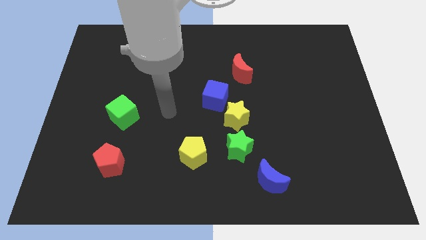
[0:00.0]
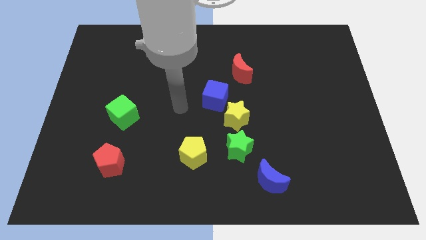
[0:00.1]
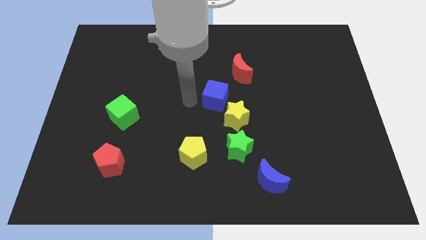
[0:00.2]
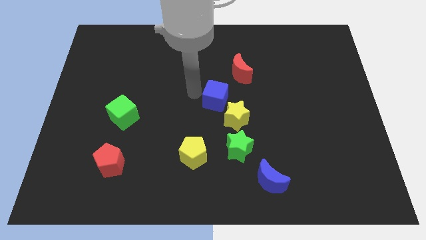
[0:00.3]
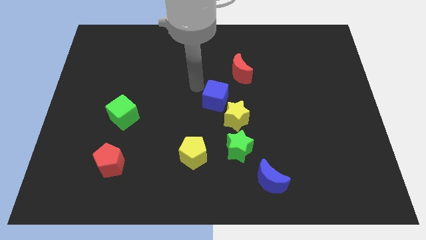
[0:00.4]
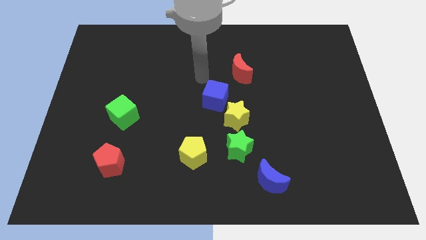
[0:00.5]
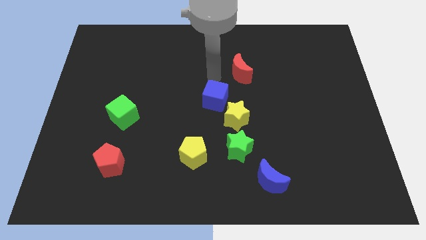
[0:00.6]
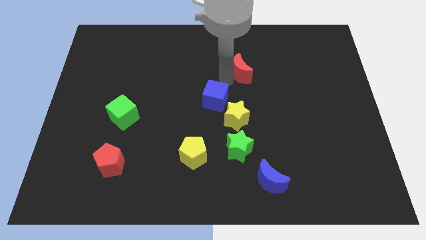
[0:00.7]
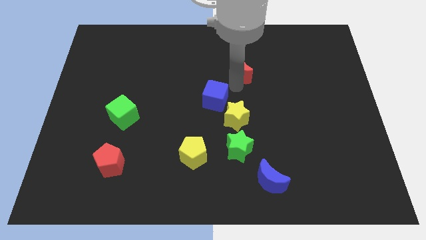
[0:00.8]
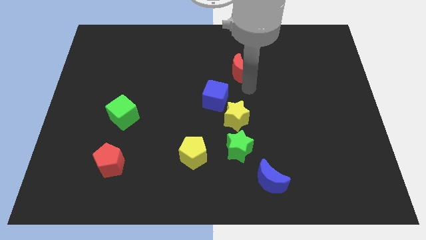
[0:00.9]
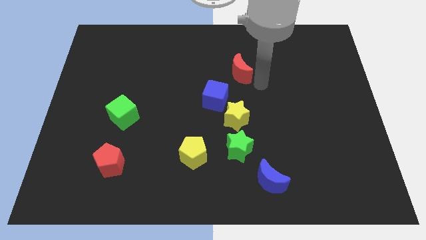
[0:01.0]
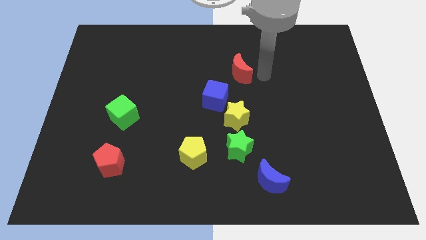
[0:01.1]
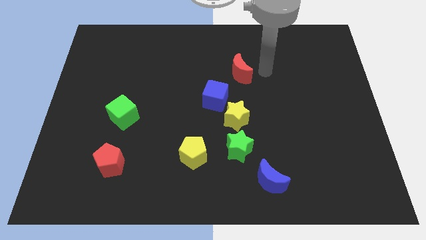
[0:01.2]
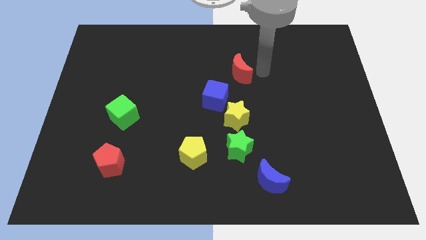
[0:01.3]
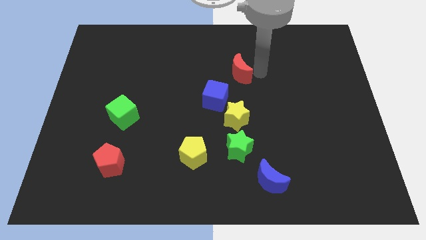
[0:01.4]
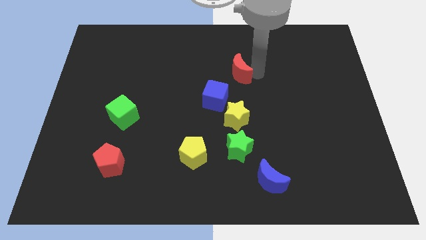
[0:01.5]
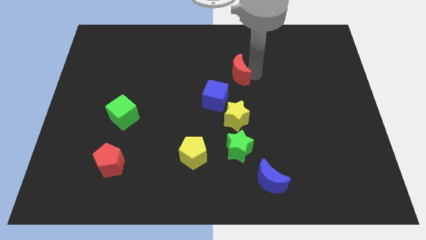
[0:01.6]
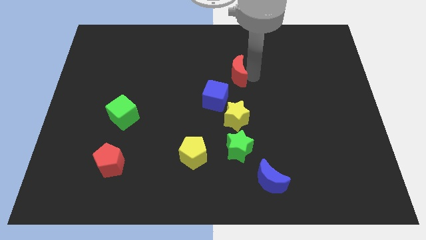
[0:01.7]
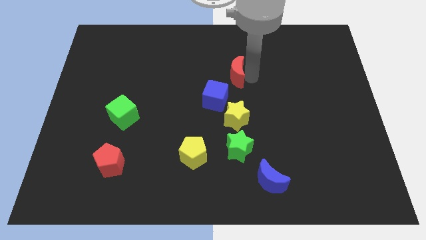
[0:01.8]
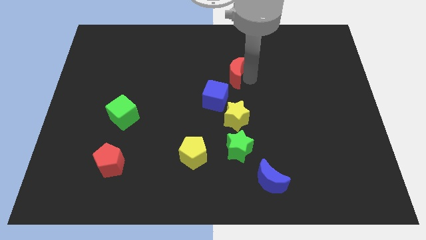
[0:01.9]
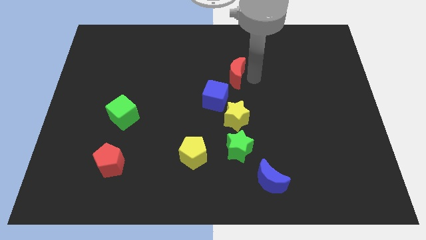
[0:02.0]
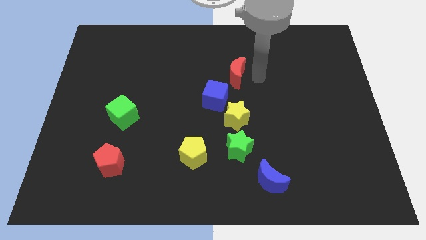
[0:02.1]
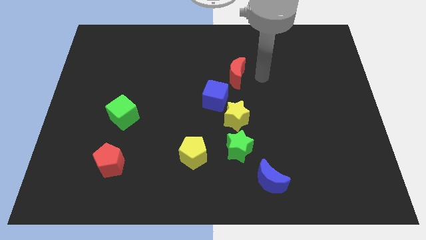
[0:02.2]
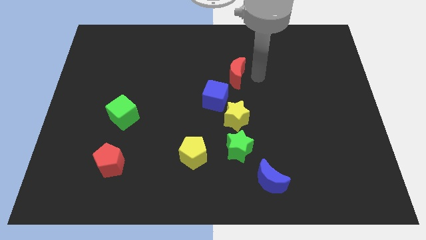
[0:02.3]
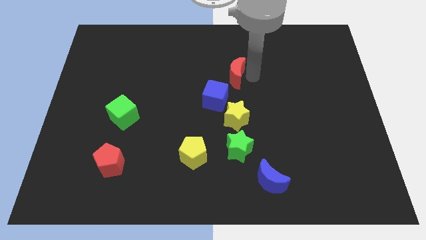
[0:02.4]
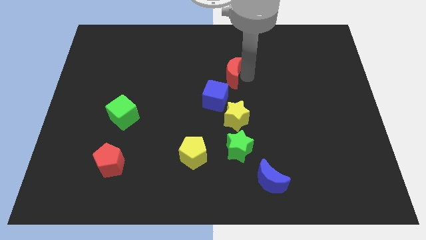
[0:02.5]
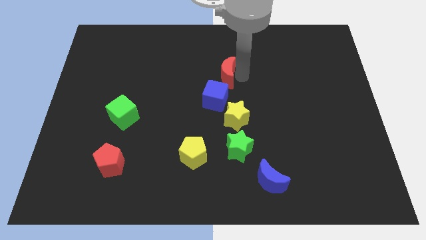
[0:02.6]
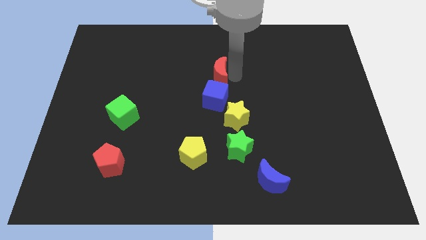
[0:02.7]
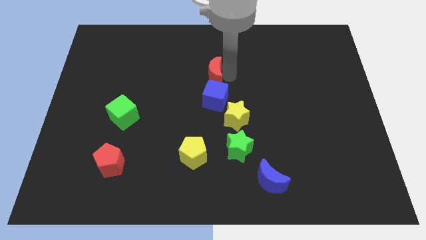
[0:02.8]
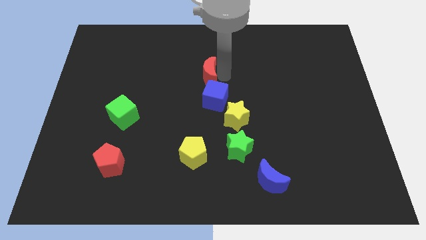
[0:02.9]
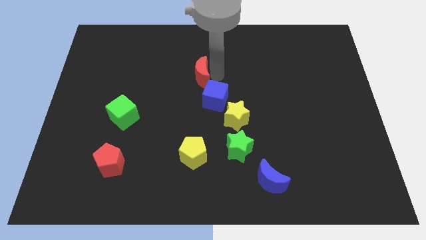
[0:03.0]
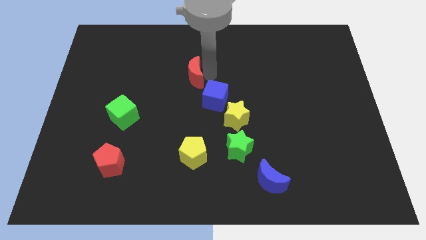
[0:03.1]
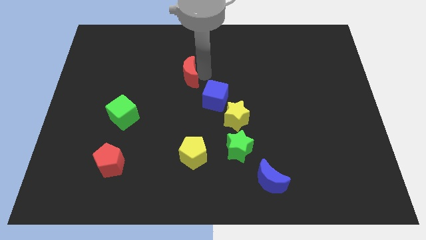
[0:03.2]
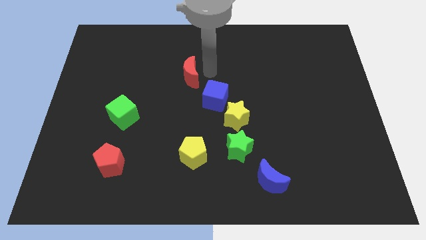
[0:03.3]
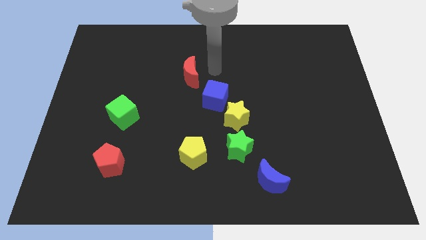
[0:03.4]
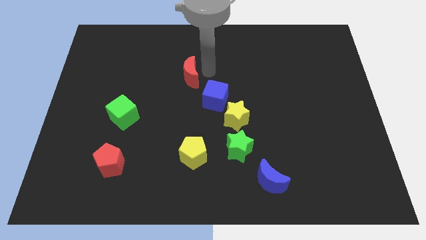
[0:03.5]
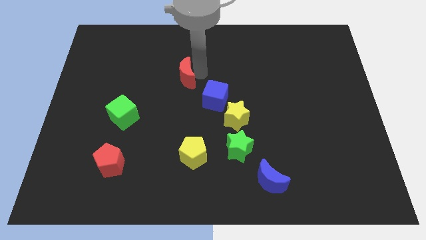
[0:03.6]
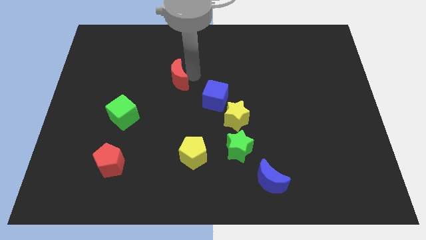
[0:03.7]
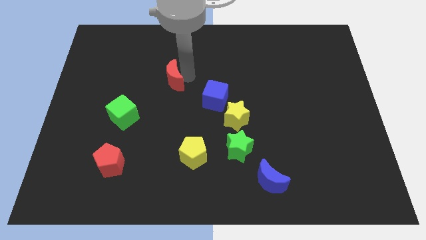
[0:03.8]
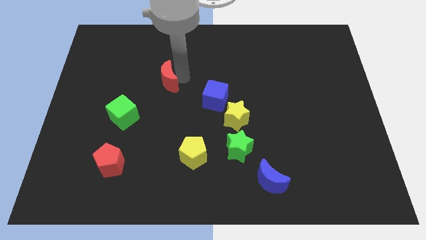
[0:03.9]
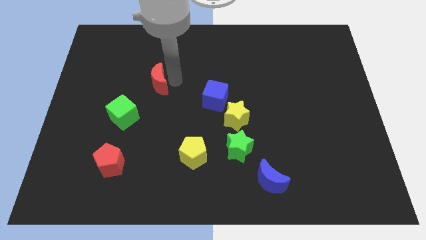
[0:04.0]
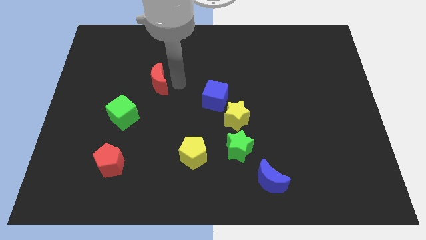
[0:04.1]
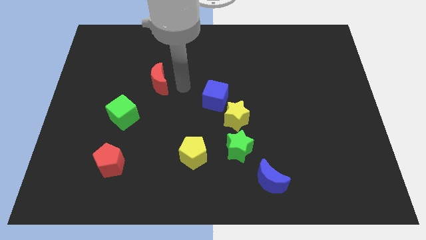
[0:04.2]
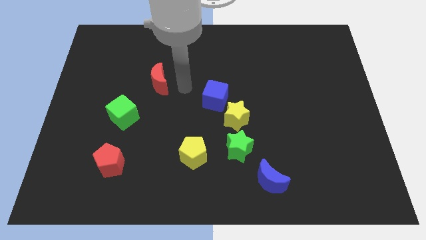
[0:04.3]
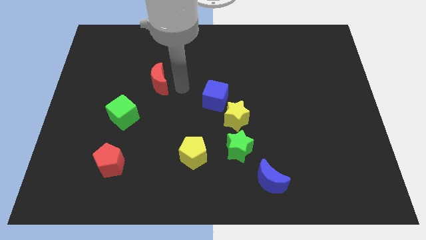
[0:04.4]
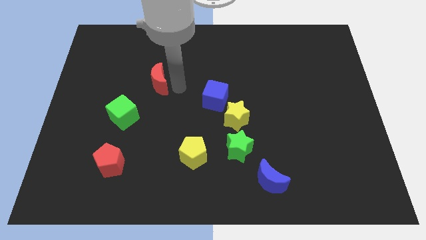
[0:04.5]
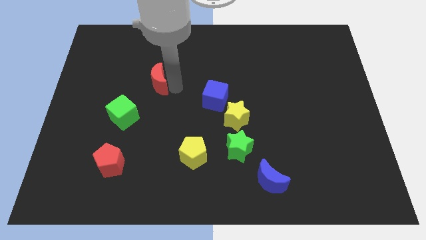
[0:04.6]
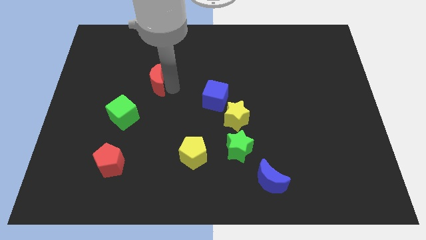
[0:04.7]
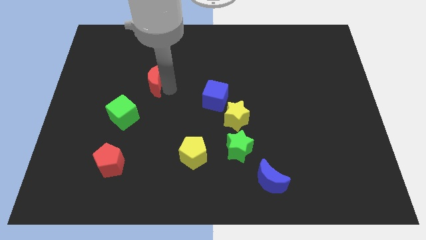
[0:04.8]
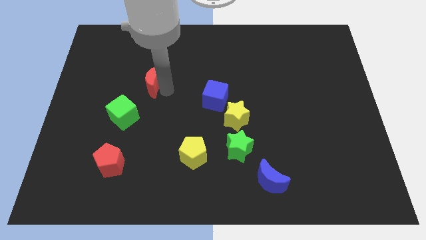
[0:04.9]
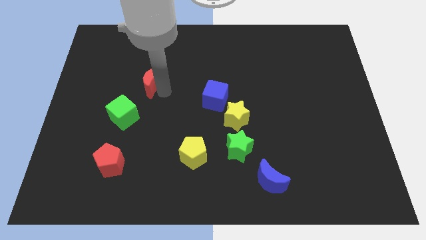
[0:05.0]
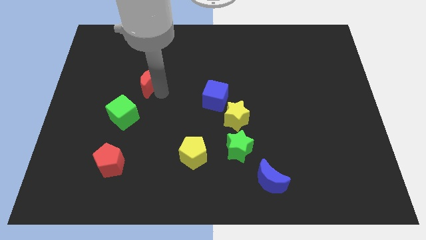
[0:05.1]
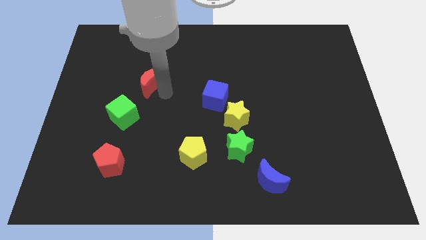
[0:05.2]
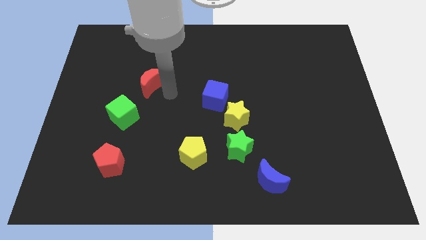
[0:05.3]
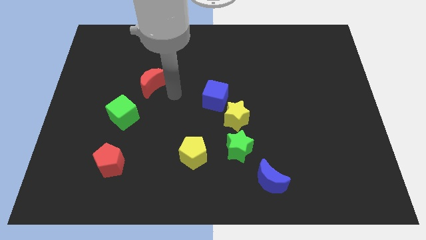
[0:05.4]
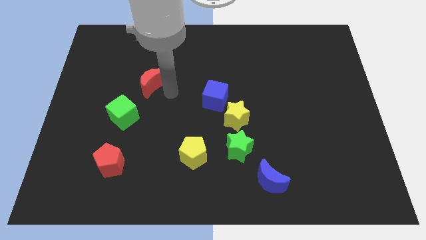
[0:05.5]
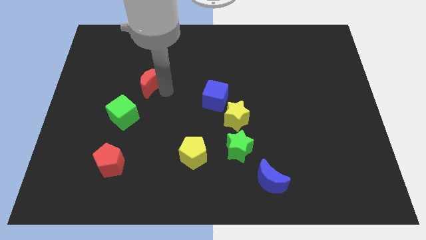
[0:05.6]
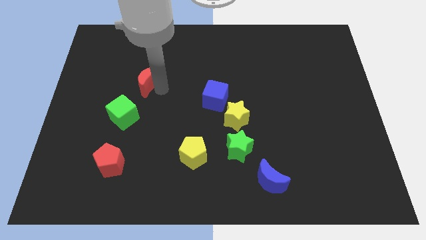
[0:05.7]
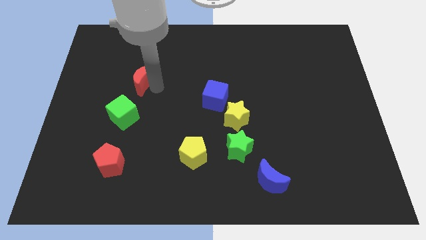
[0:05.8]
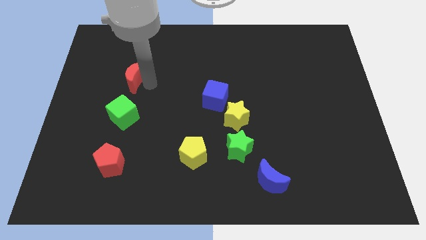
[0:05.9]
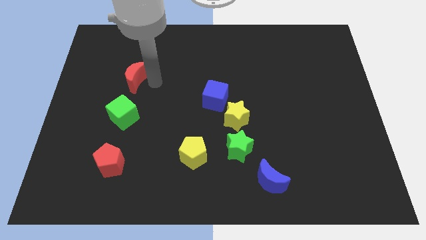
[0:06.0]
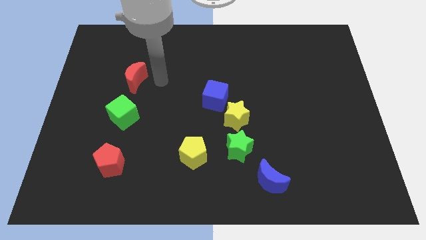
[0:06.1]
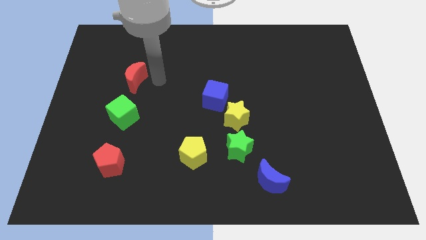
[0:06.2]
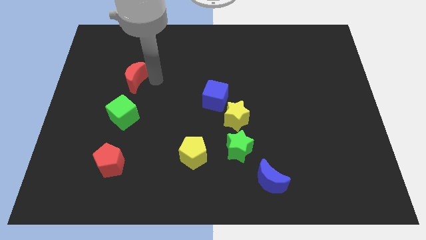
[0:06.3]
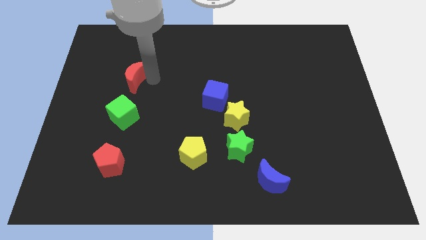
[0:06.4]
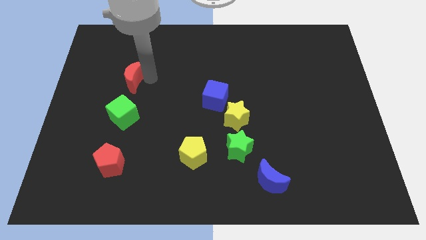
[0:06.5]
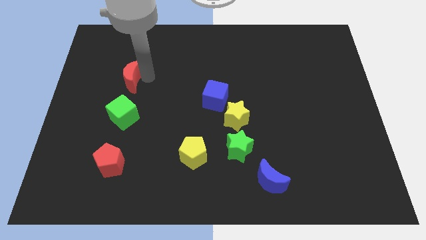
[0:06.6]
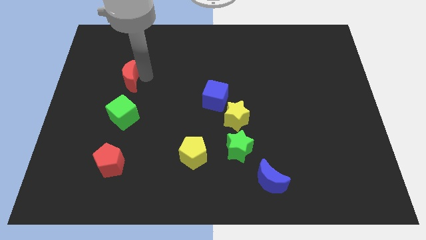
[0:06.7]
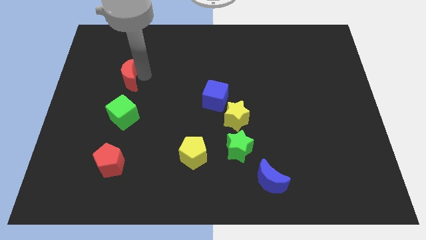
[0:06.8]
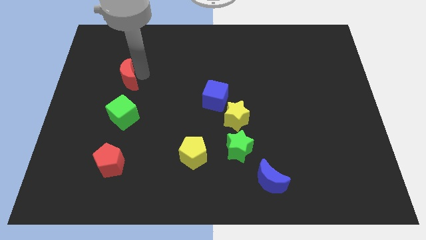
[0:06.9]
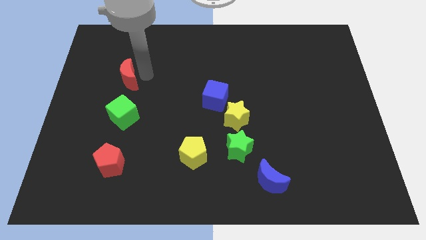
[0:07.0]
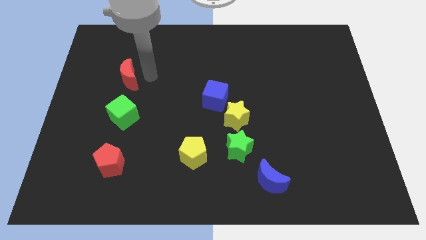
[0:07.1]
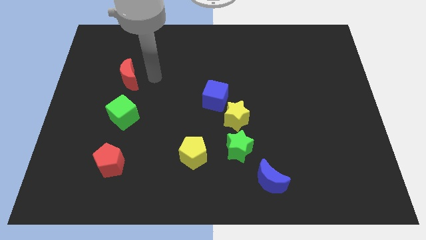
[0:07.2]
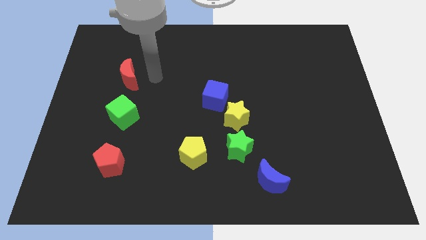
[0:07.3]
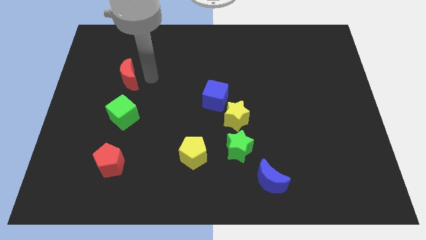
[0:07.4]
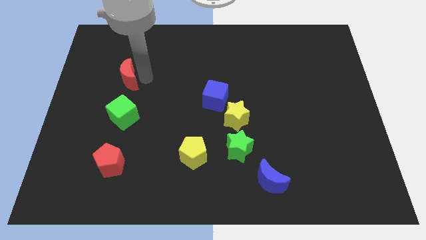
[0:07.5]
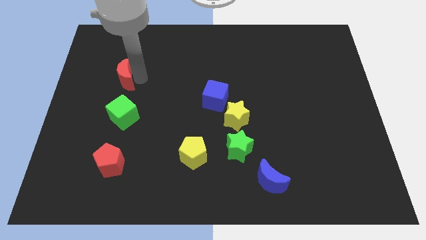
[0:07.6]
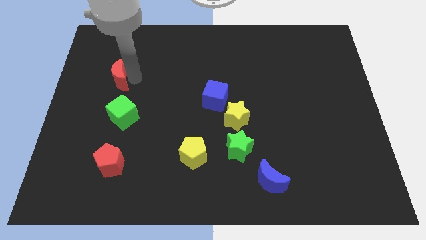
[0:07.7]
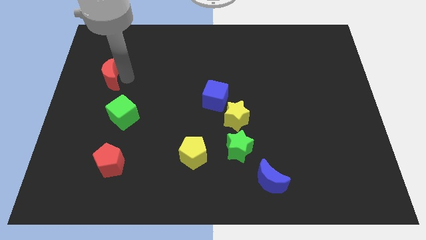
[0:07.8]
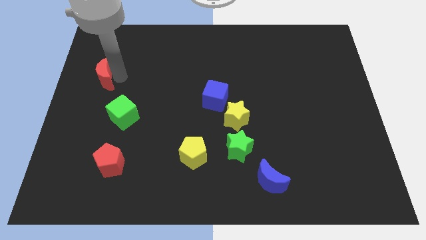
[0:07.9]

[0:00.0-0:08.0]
move the red moon to the center left
